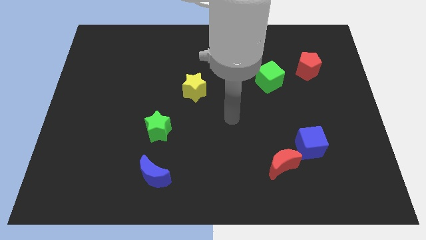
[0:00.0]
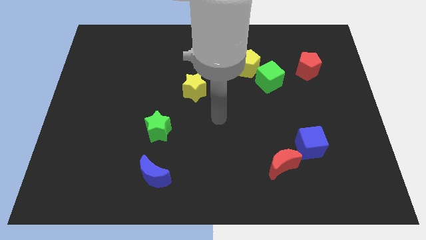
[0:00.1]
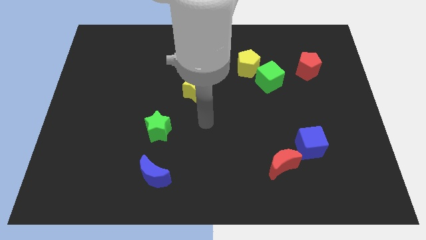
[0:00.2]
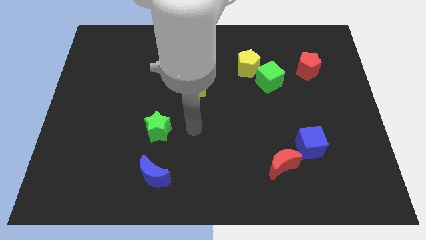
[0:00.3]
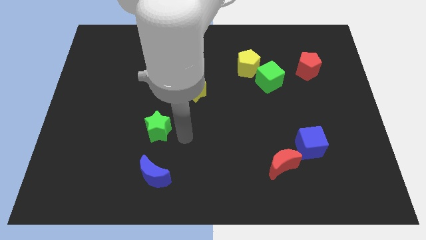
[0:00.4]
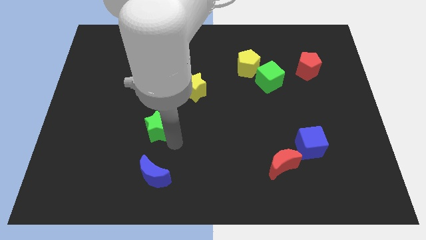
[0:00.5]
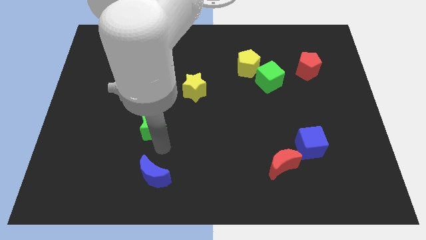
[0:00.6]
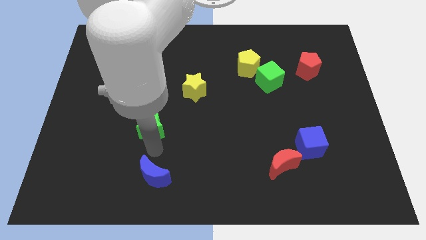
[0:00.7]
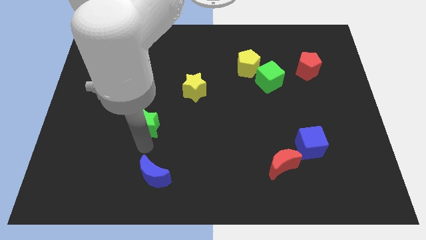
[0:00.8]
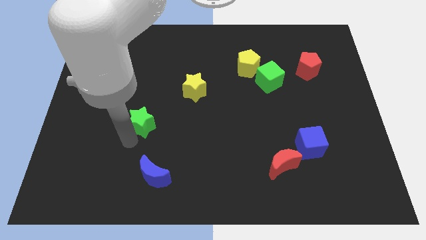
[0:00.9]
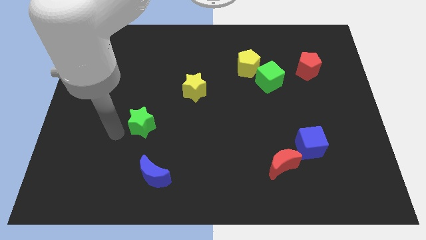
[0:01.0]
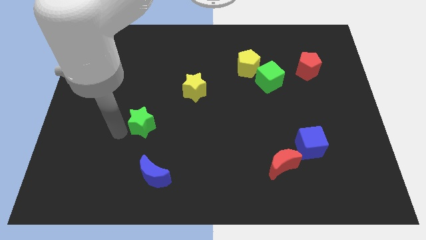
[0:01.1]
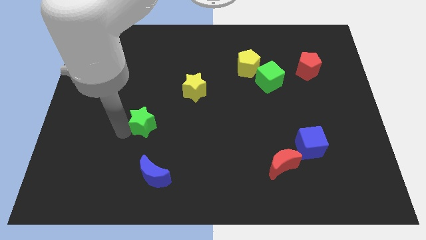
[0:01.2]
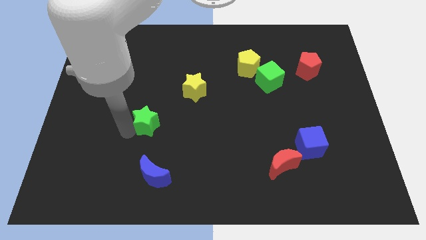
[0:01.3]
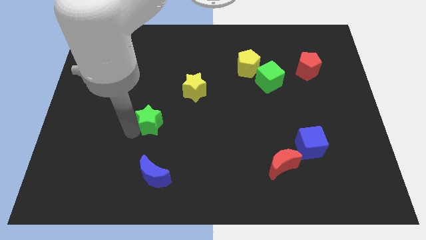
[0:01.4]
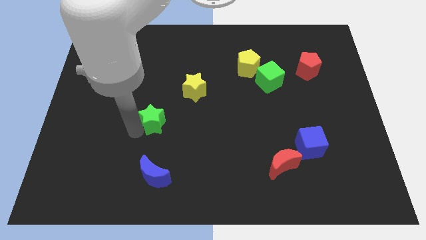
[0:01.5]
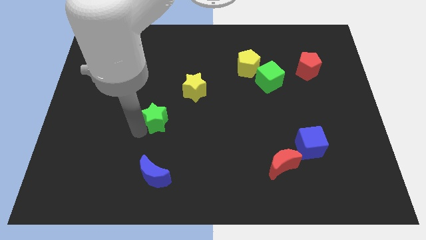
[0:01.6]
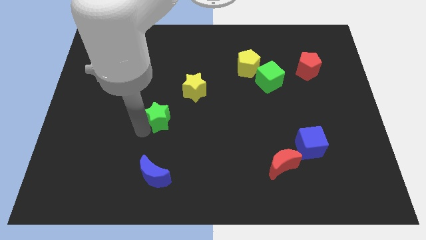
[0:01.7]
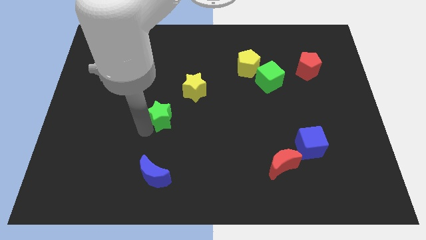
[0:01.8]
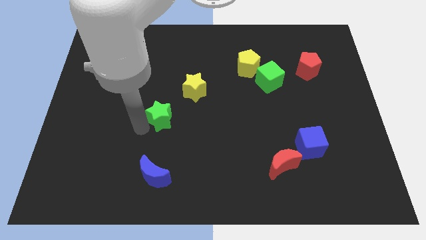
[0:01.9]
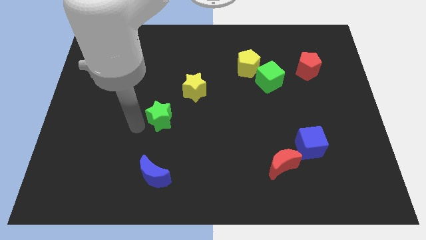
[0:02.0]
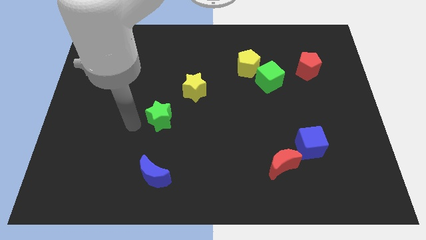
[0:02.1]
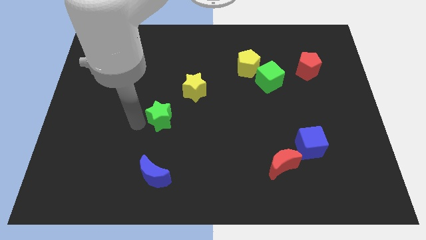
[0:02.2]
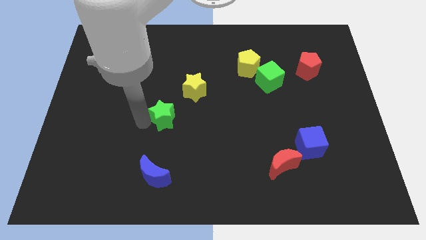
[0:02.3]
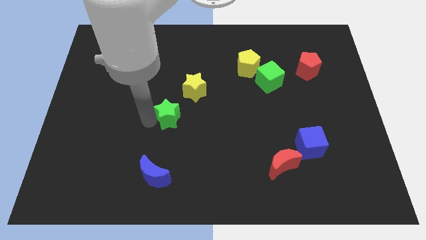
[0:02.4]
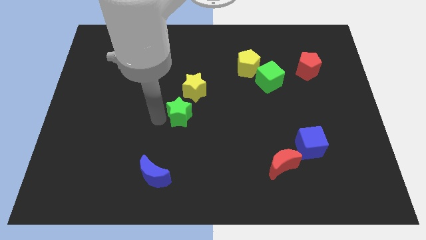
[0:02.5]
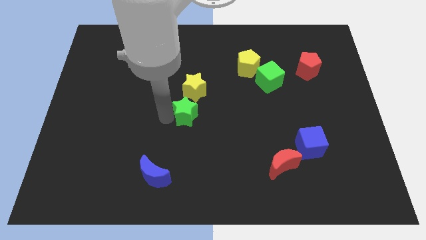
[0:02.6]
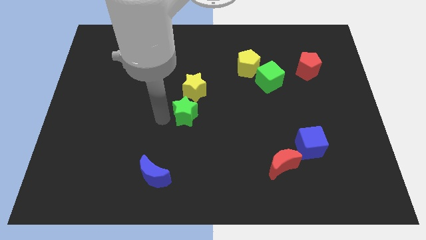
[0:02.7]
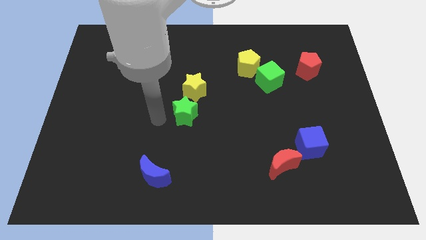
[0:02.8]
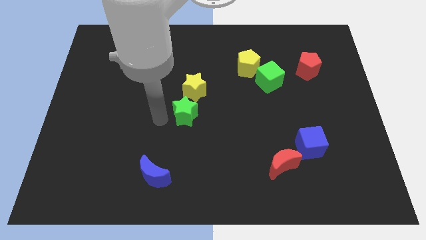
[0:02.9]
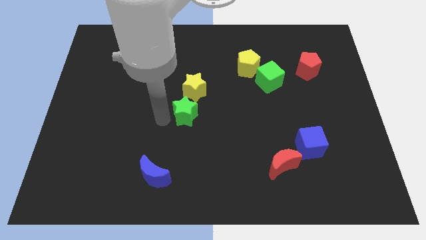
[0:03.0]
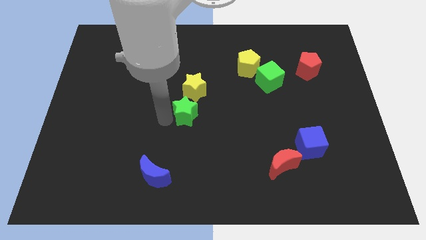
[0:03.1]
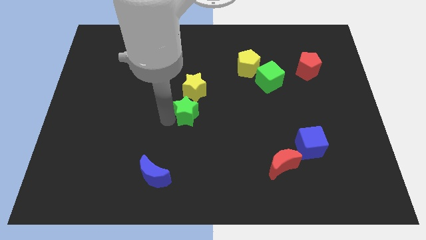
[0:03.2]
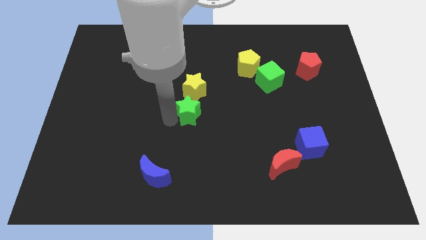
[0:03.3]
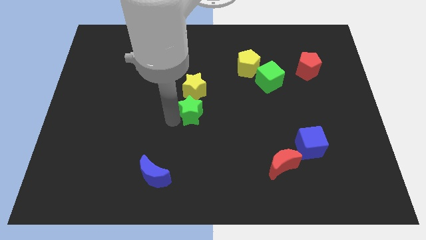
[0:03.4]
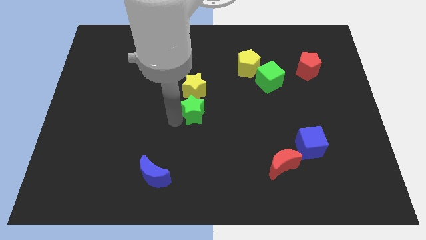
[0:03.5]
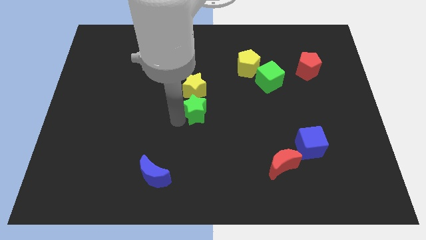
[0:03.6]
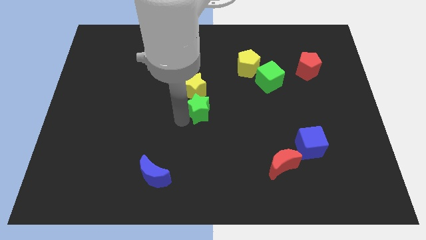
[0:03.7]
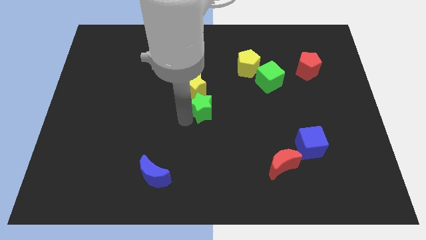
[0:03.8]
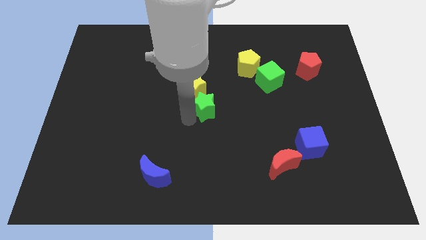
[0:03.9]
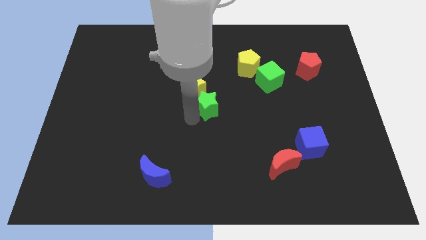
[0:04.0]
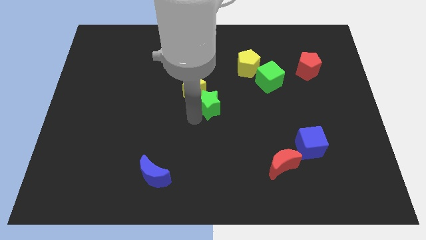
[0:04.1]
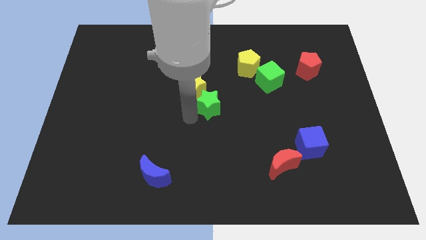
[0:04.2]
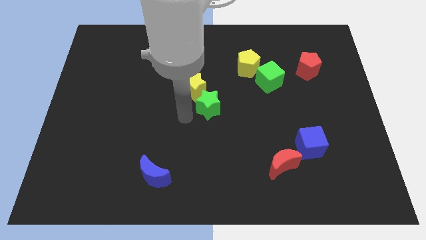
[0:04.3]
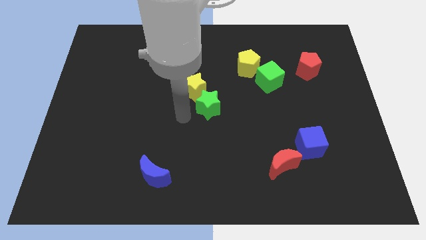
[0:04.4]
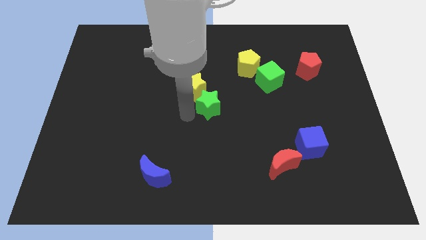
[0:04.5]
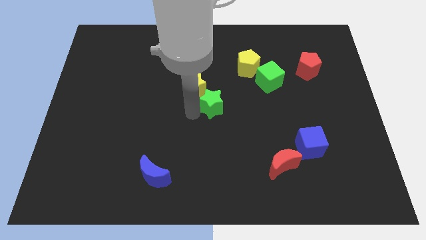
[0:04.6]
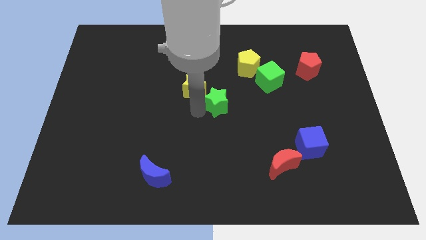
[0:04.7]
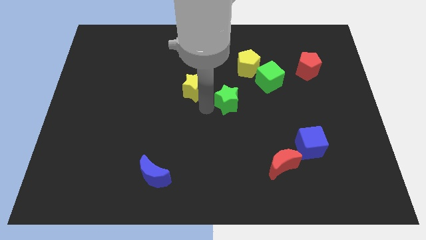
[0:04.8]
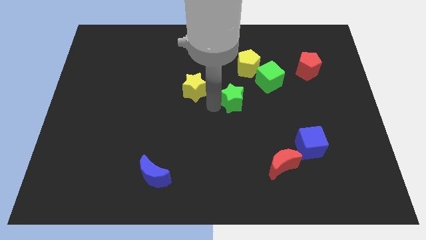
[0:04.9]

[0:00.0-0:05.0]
push the green star below the yellow pentagon

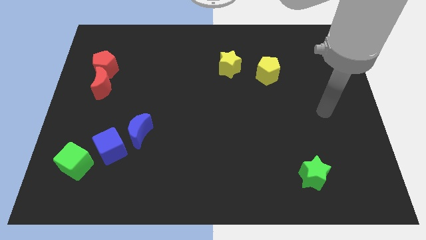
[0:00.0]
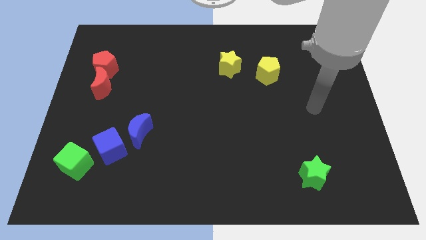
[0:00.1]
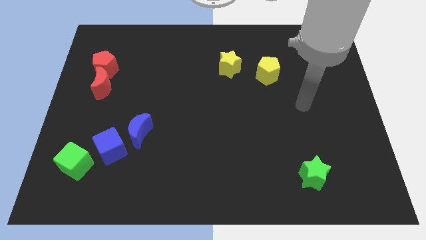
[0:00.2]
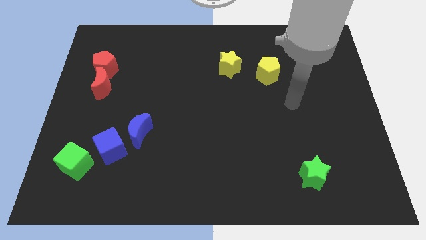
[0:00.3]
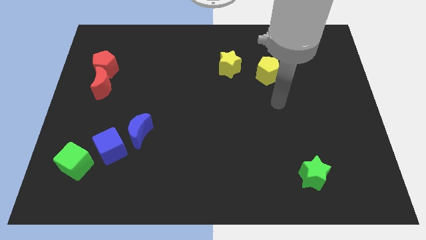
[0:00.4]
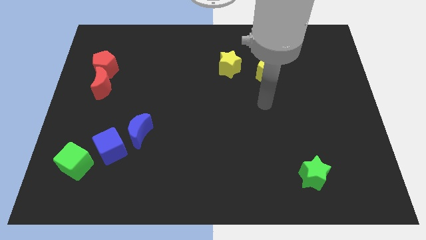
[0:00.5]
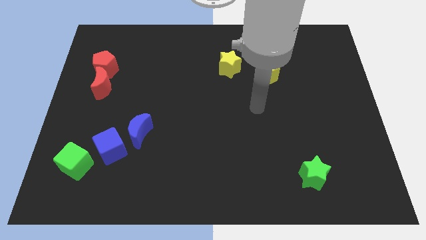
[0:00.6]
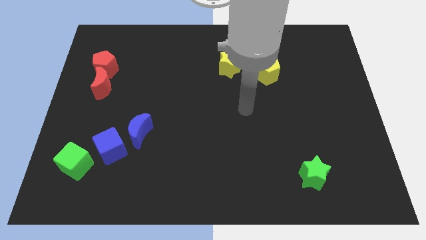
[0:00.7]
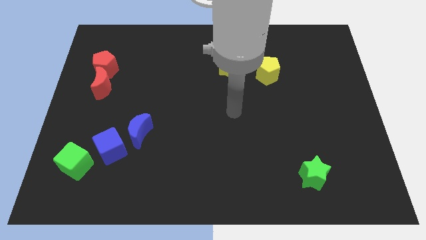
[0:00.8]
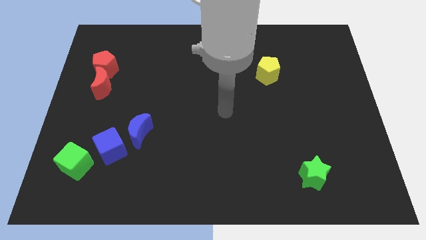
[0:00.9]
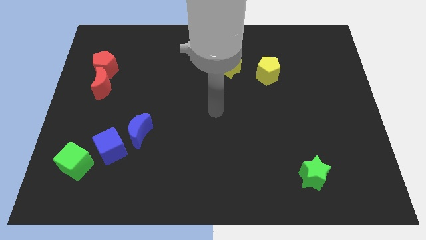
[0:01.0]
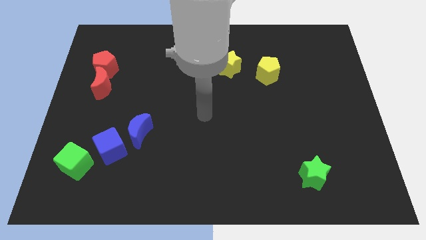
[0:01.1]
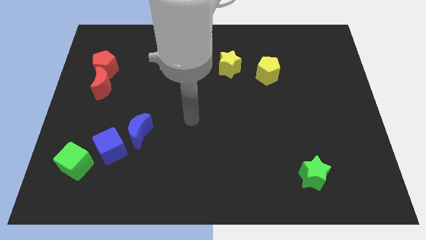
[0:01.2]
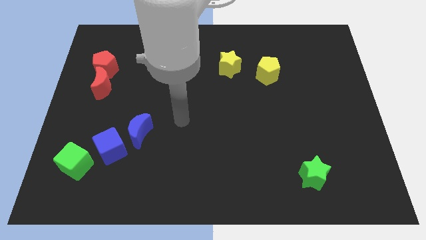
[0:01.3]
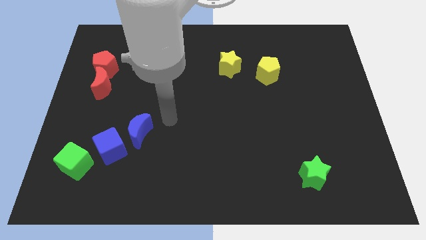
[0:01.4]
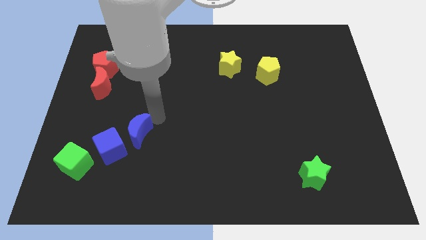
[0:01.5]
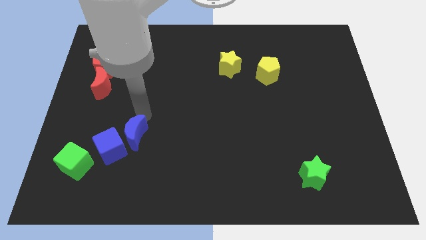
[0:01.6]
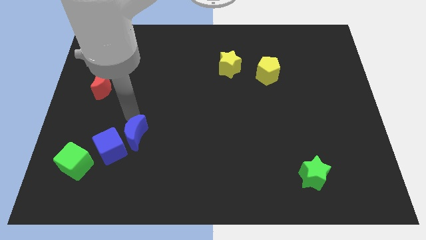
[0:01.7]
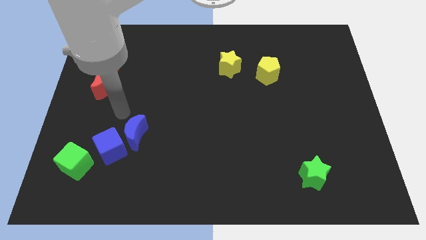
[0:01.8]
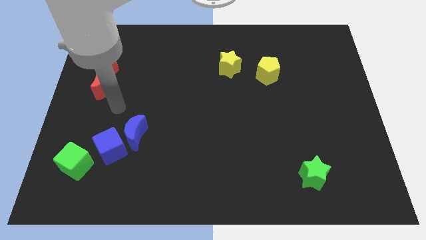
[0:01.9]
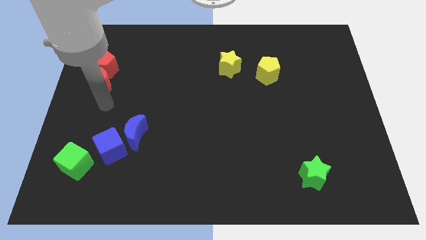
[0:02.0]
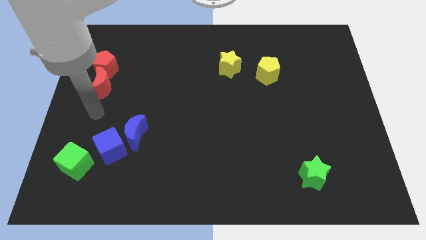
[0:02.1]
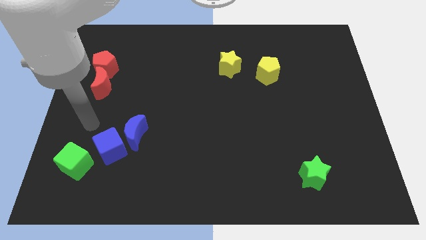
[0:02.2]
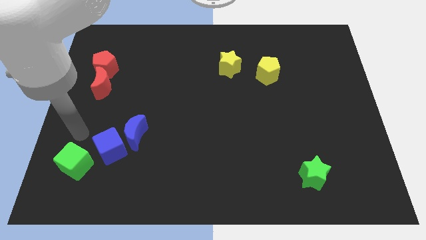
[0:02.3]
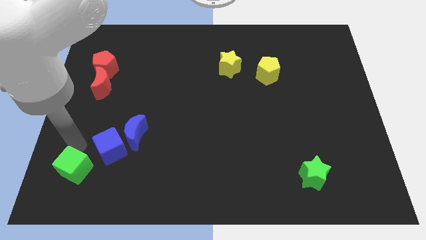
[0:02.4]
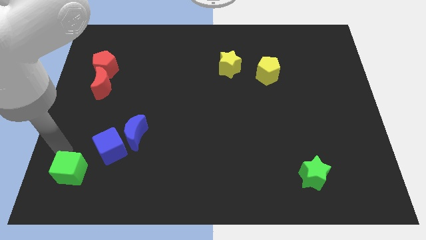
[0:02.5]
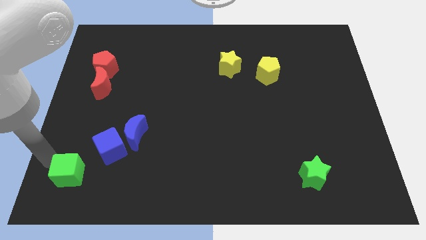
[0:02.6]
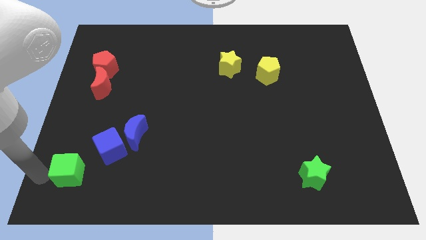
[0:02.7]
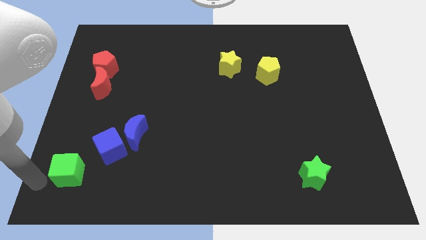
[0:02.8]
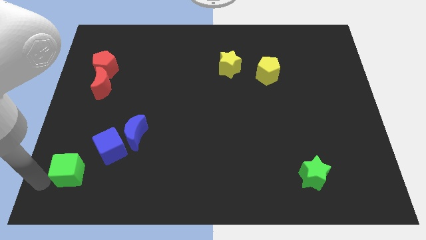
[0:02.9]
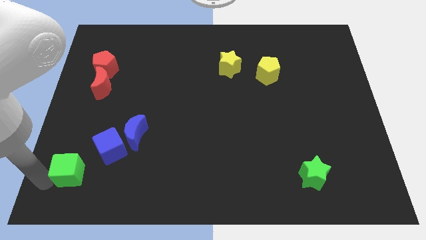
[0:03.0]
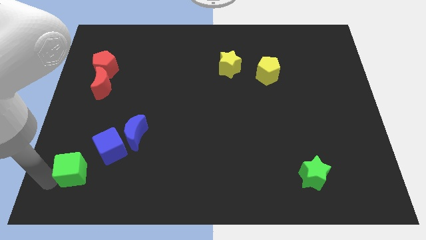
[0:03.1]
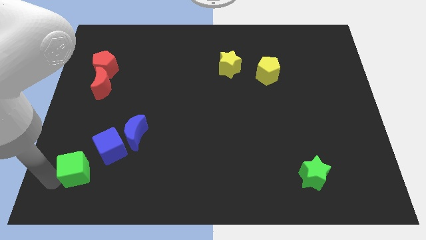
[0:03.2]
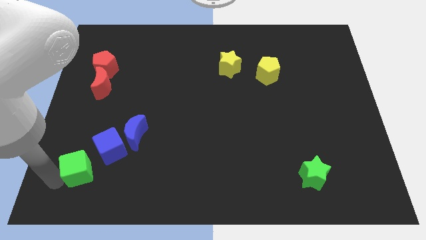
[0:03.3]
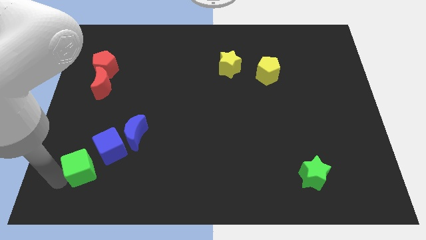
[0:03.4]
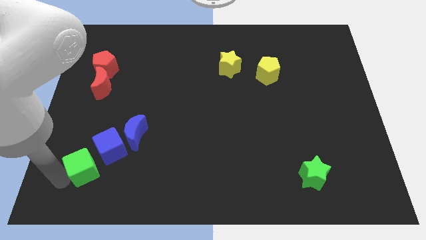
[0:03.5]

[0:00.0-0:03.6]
move the green cube diagonally down and to the left of the blue moon
